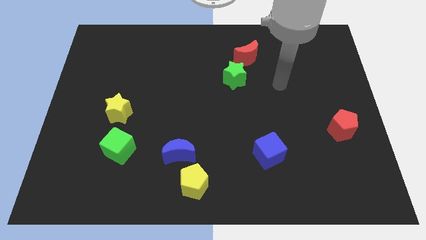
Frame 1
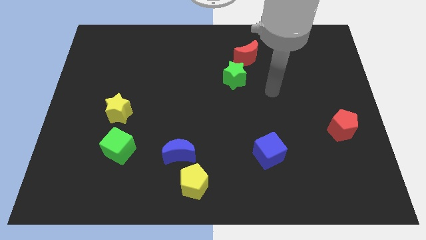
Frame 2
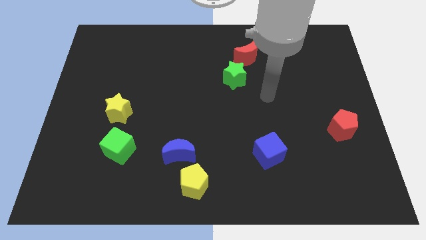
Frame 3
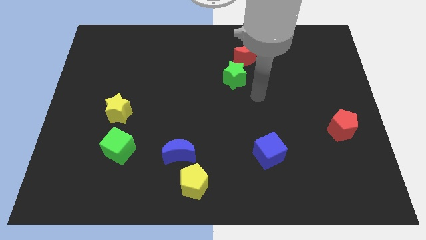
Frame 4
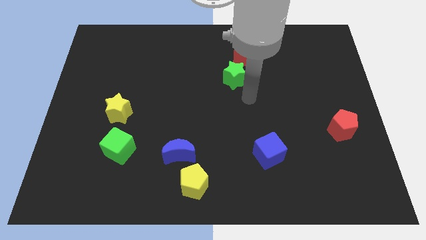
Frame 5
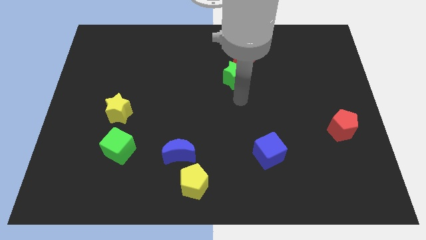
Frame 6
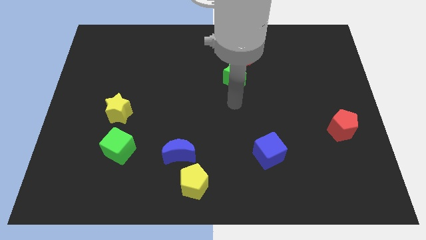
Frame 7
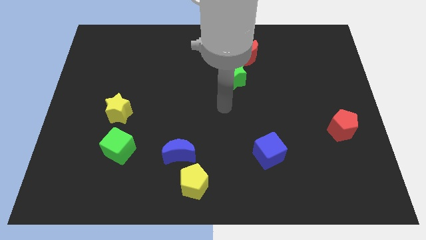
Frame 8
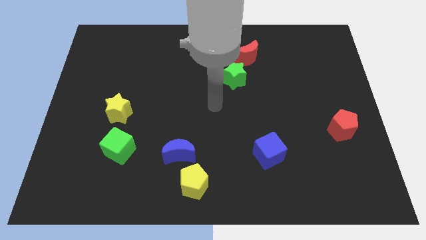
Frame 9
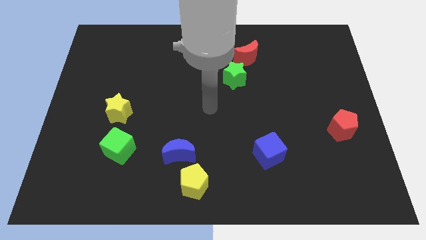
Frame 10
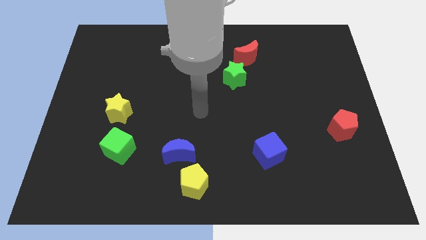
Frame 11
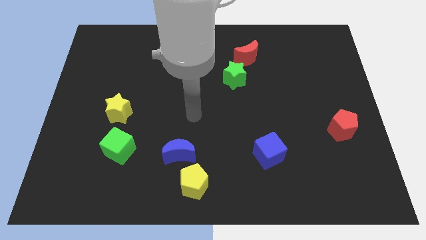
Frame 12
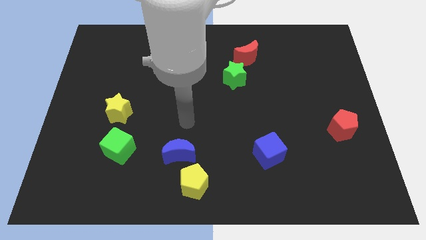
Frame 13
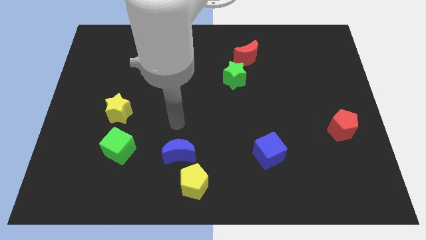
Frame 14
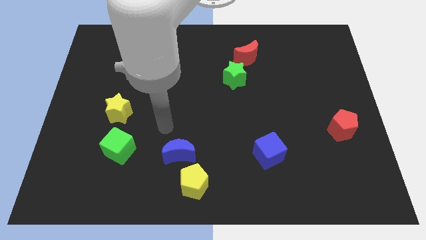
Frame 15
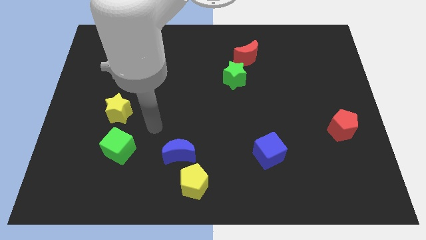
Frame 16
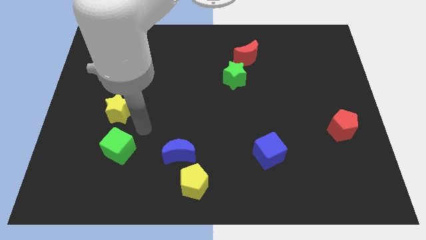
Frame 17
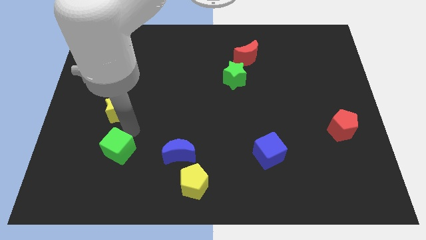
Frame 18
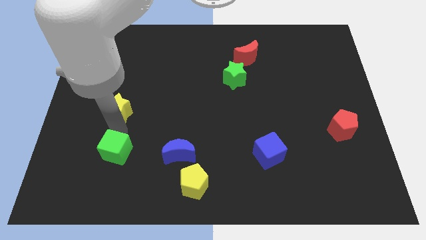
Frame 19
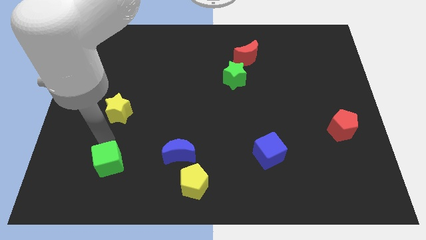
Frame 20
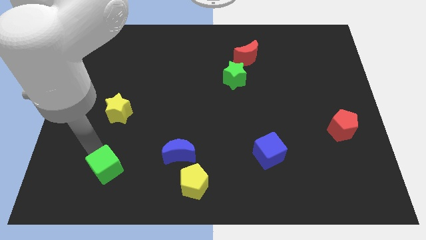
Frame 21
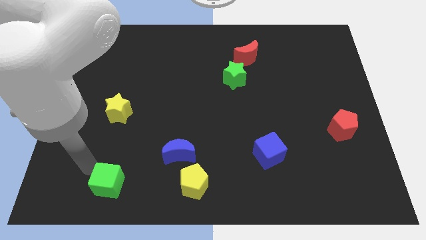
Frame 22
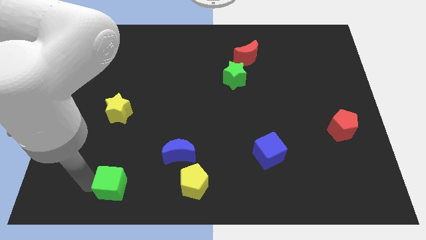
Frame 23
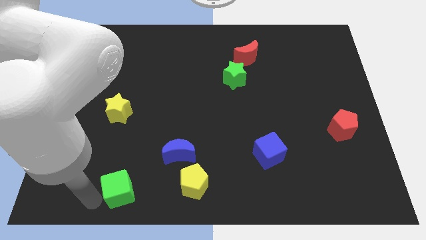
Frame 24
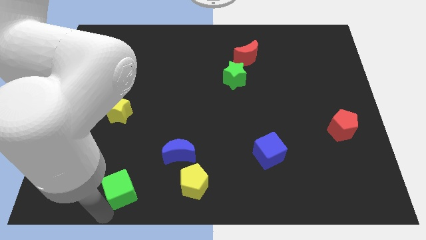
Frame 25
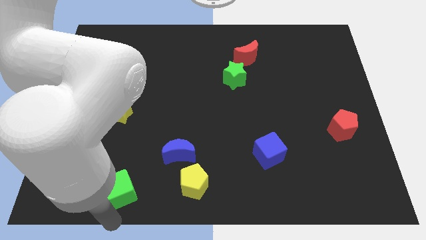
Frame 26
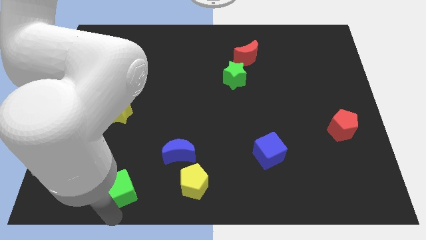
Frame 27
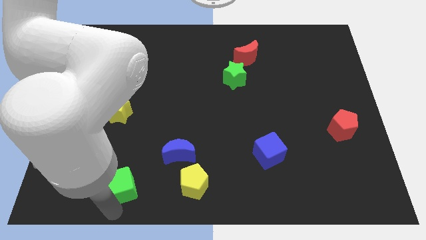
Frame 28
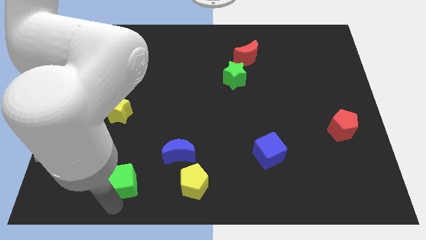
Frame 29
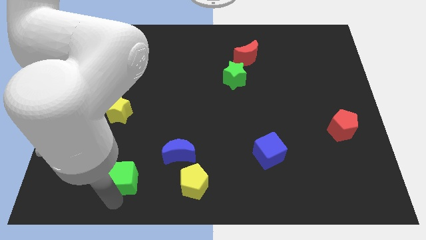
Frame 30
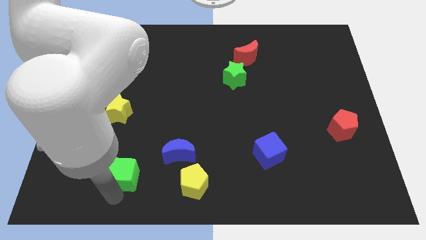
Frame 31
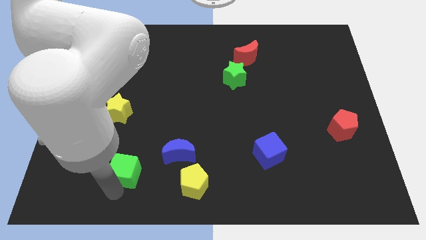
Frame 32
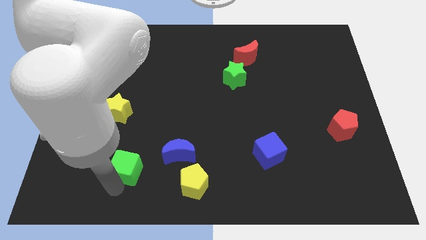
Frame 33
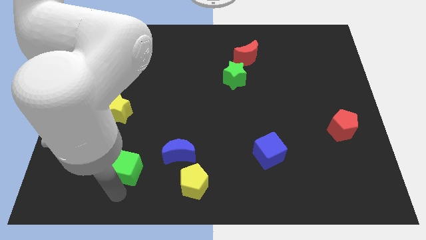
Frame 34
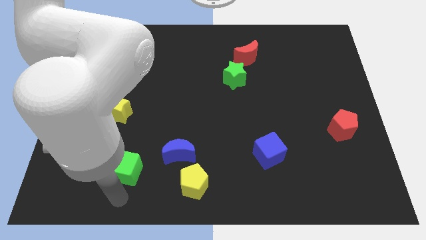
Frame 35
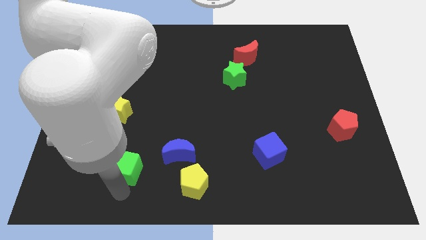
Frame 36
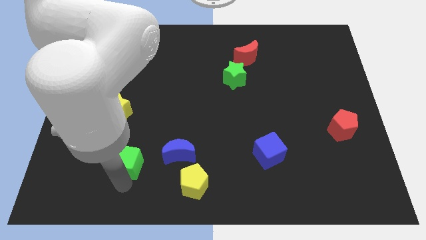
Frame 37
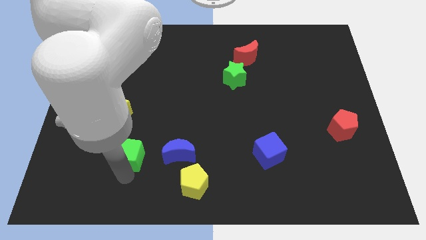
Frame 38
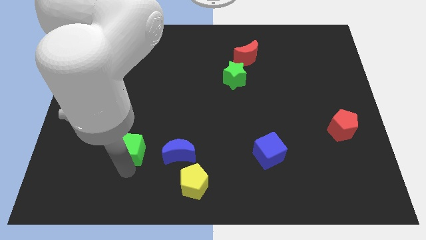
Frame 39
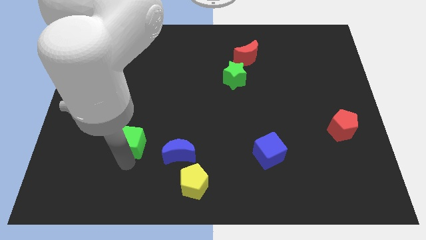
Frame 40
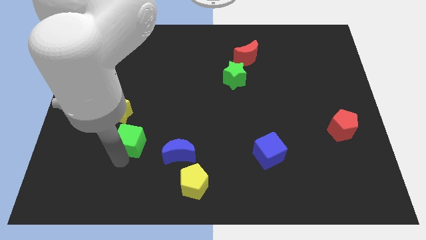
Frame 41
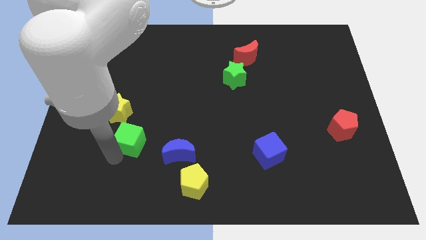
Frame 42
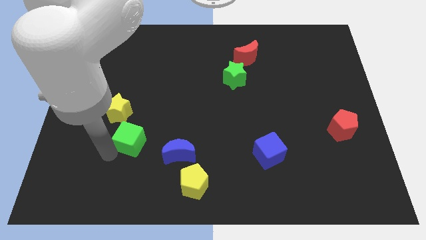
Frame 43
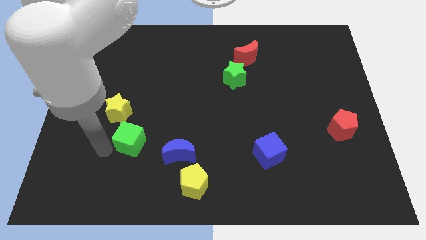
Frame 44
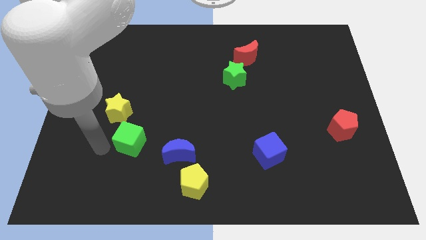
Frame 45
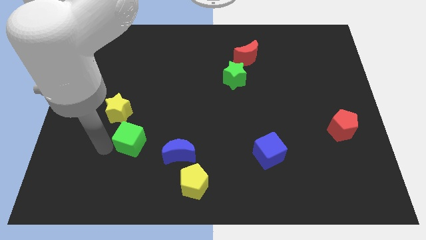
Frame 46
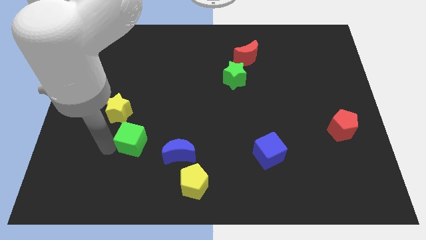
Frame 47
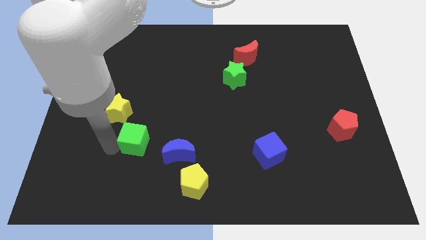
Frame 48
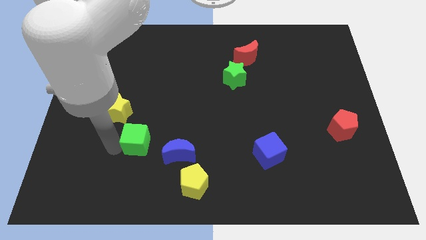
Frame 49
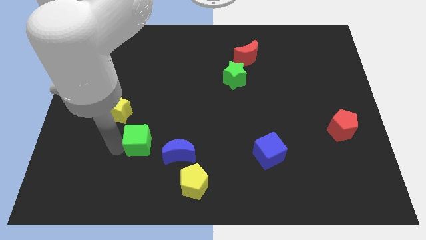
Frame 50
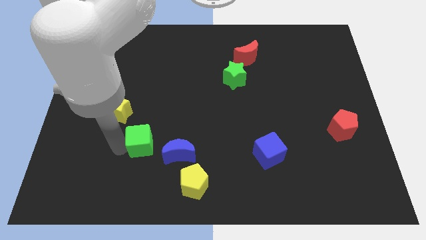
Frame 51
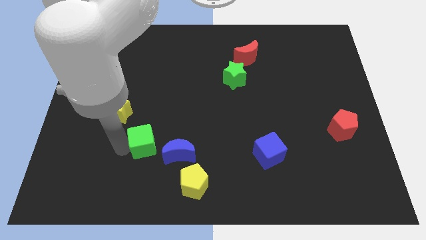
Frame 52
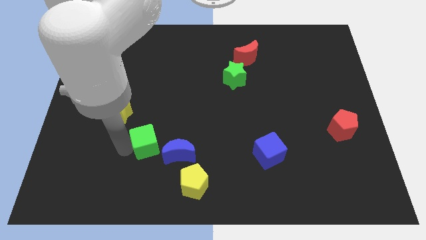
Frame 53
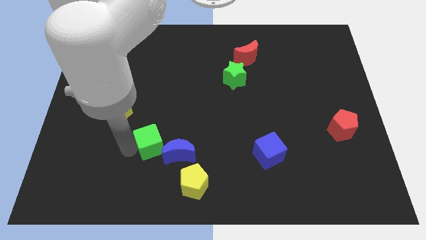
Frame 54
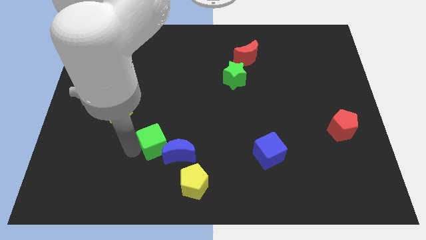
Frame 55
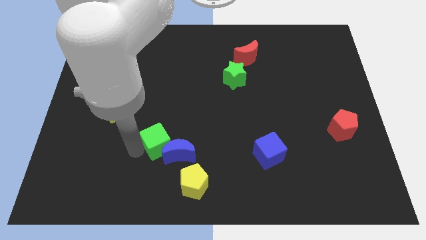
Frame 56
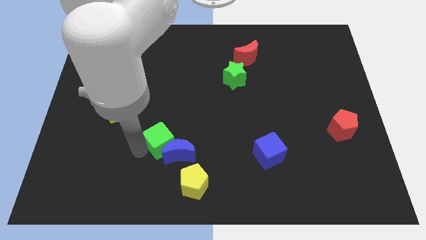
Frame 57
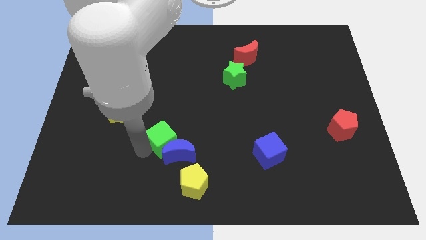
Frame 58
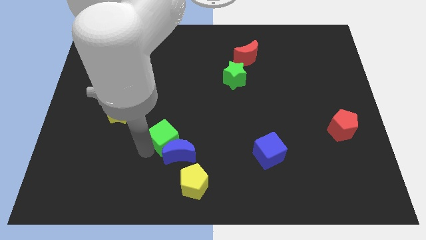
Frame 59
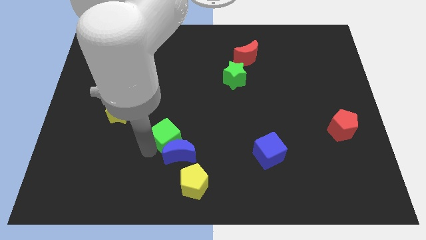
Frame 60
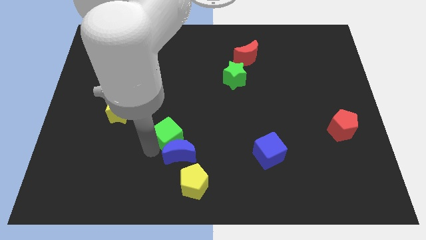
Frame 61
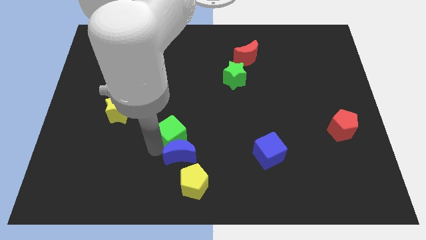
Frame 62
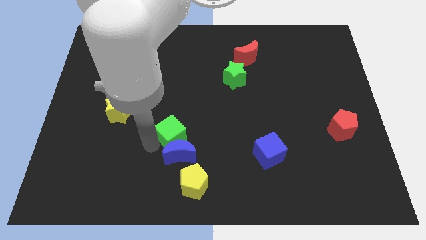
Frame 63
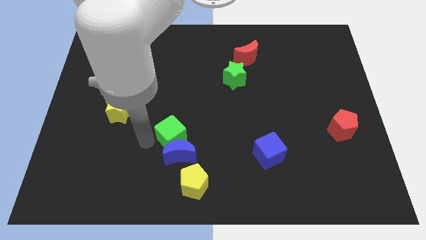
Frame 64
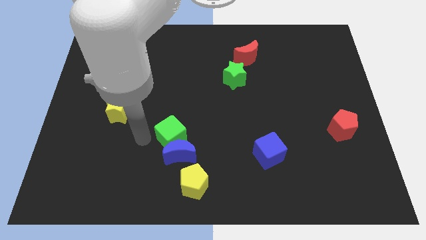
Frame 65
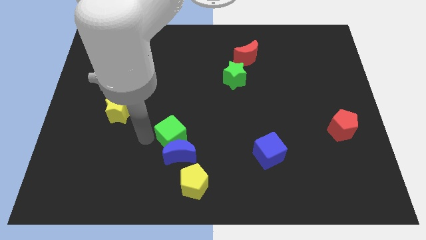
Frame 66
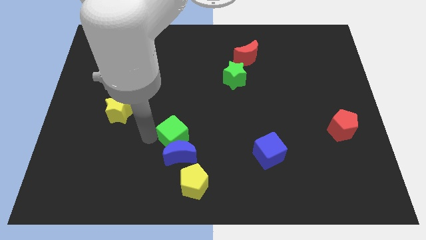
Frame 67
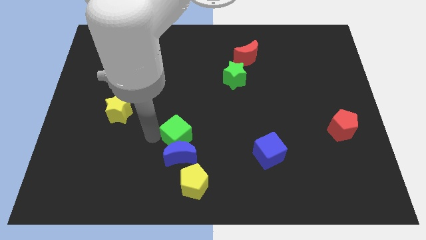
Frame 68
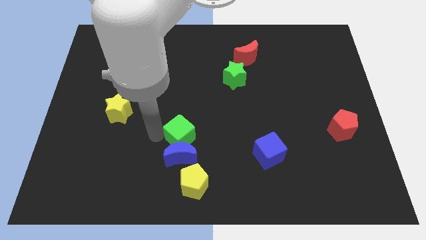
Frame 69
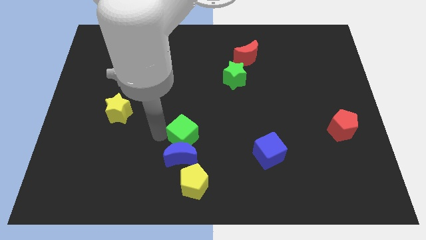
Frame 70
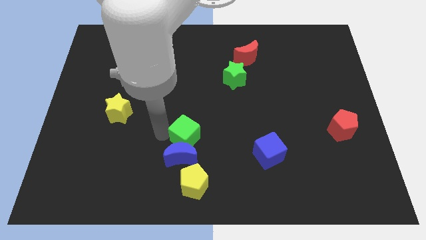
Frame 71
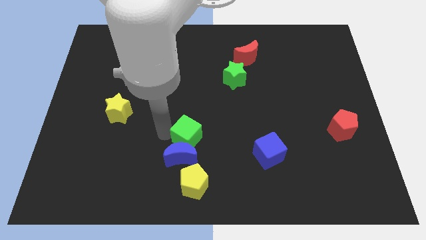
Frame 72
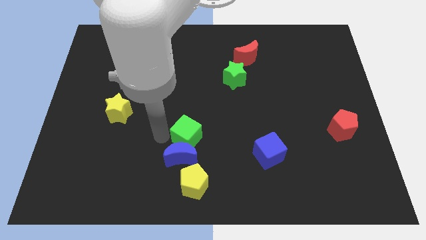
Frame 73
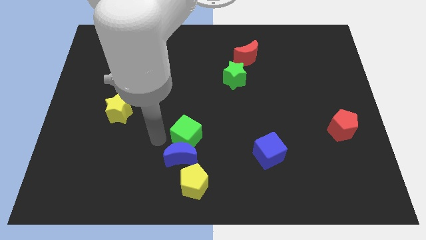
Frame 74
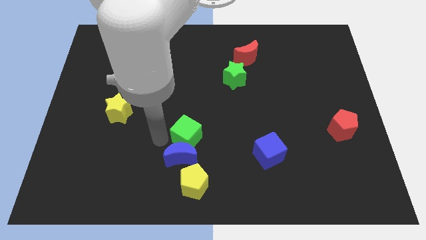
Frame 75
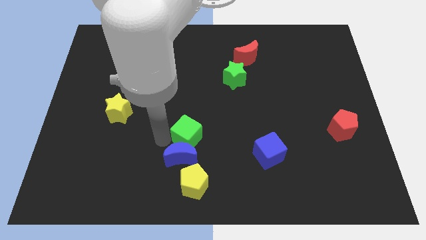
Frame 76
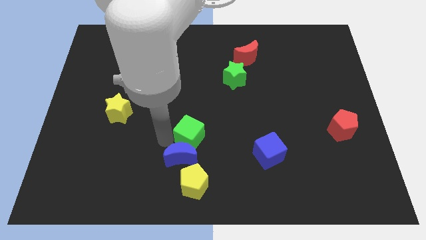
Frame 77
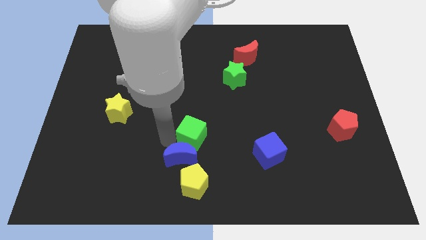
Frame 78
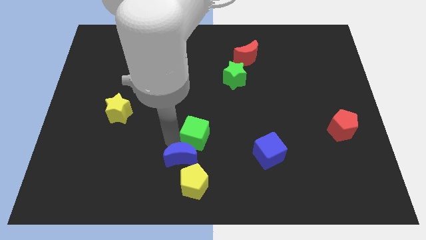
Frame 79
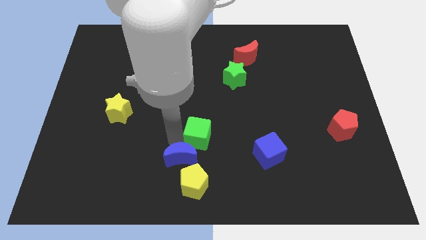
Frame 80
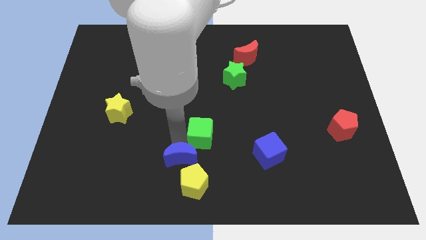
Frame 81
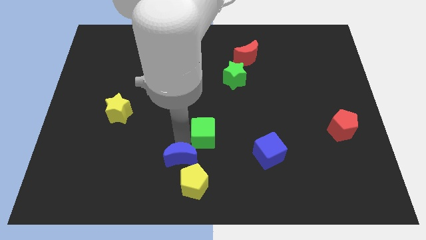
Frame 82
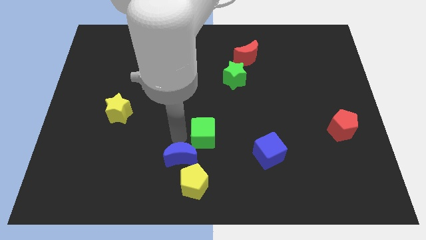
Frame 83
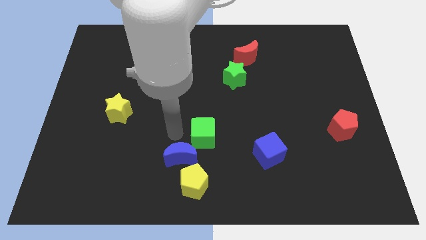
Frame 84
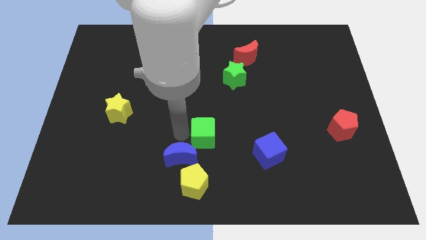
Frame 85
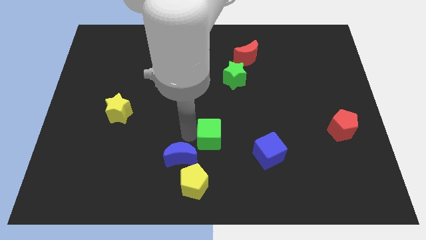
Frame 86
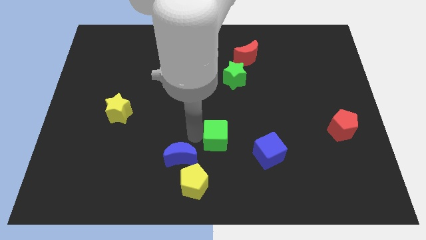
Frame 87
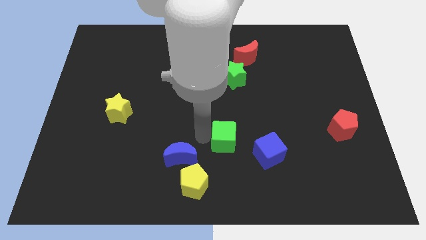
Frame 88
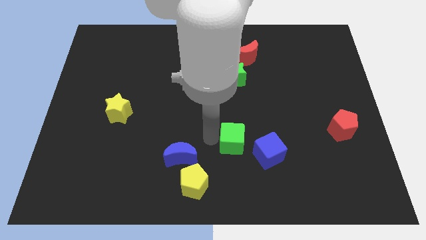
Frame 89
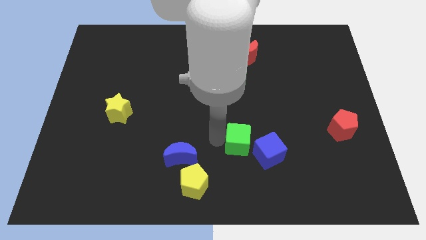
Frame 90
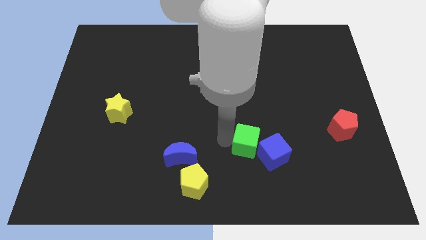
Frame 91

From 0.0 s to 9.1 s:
push the green cube close to the blue cube
